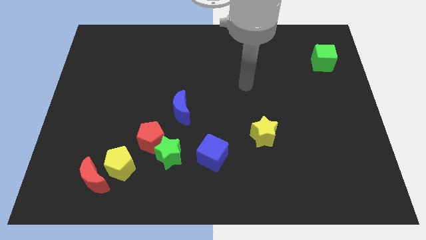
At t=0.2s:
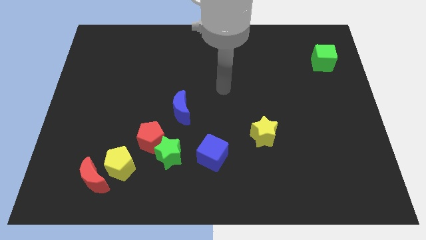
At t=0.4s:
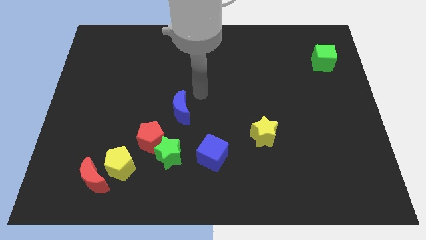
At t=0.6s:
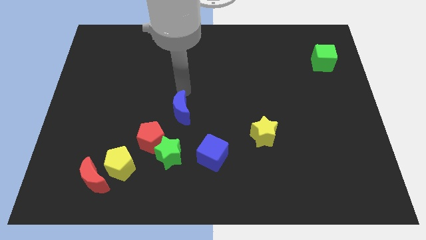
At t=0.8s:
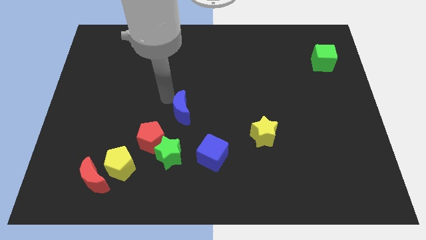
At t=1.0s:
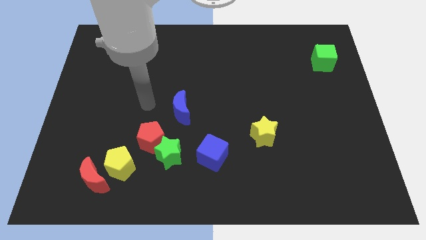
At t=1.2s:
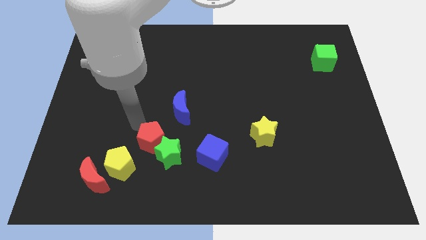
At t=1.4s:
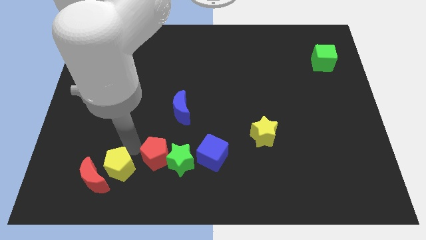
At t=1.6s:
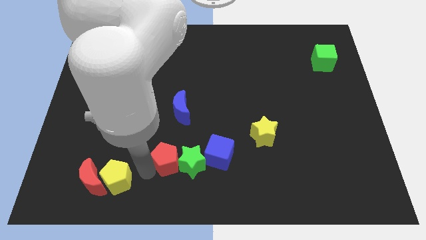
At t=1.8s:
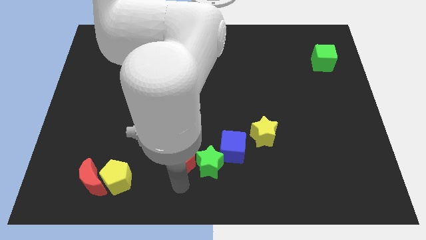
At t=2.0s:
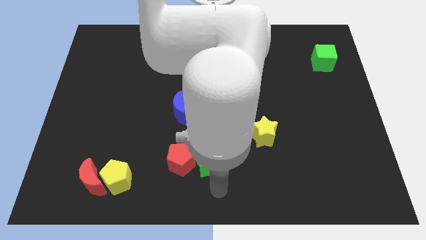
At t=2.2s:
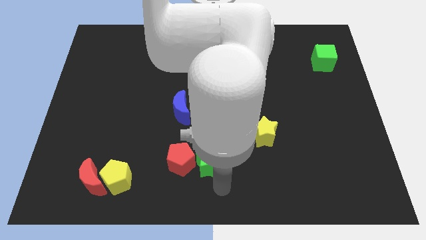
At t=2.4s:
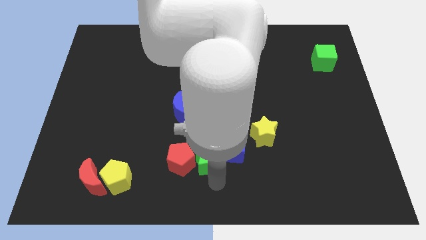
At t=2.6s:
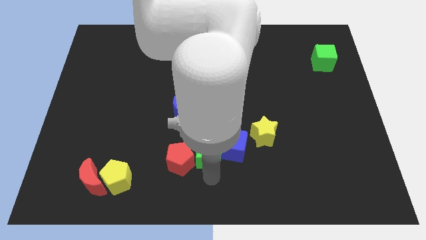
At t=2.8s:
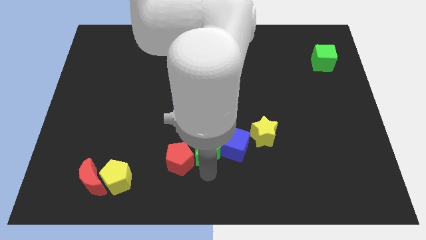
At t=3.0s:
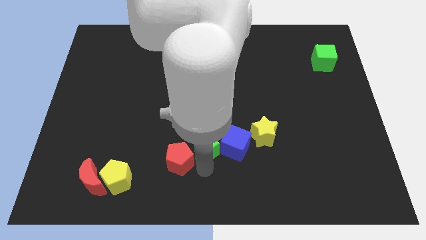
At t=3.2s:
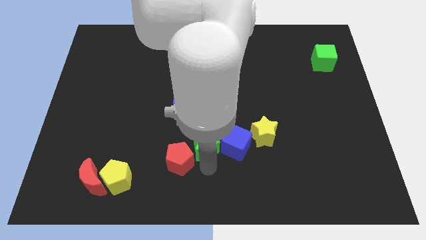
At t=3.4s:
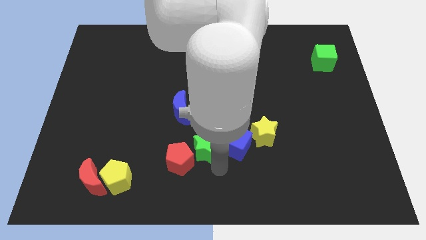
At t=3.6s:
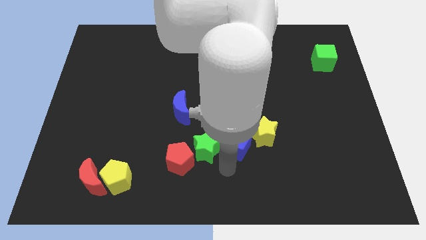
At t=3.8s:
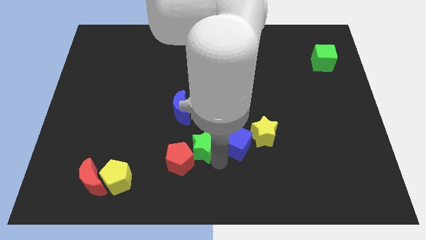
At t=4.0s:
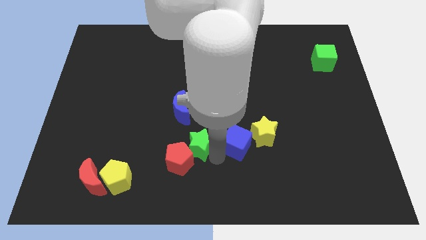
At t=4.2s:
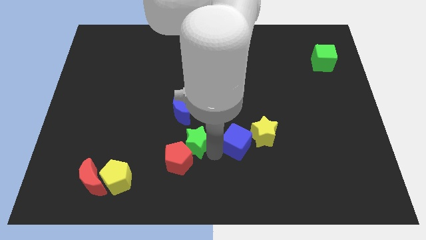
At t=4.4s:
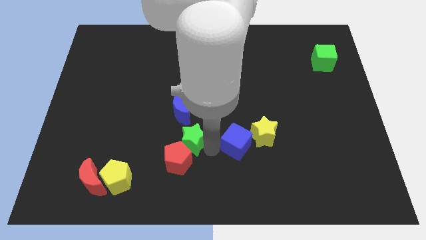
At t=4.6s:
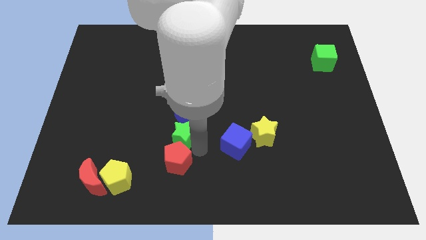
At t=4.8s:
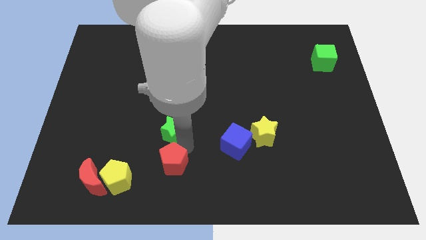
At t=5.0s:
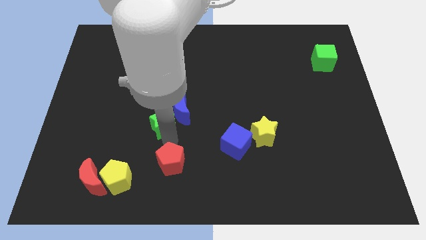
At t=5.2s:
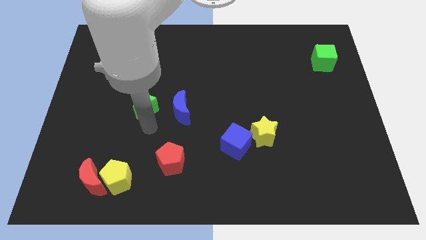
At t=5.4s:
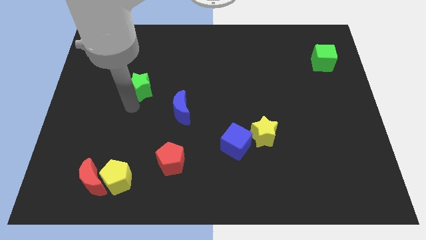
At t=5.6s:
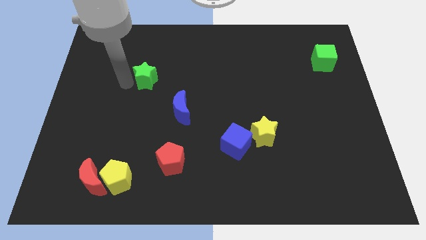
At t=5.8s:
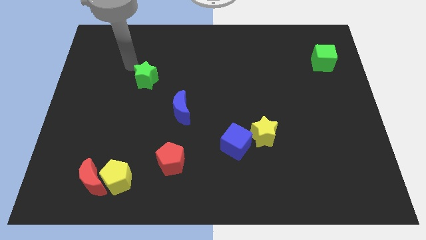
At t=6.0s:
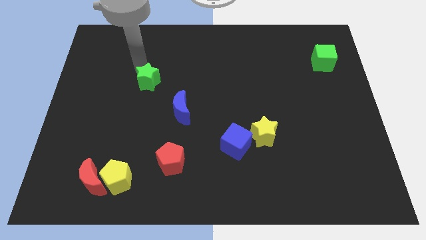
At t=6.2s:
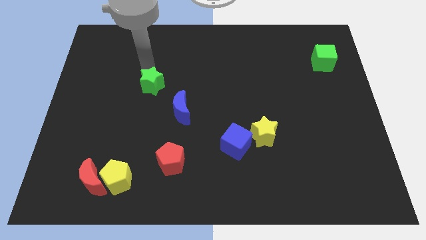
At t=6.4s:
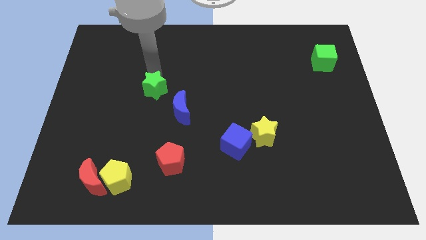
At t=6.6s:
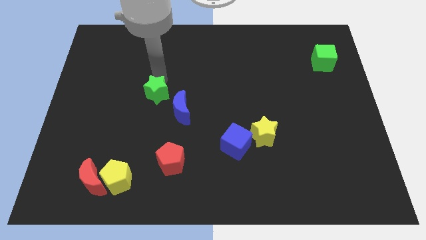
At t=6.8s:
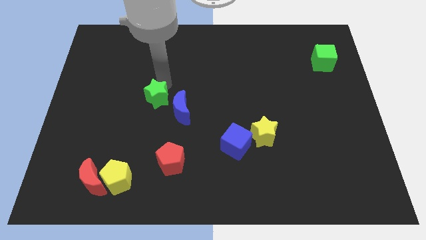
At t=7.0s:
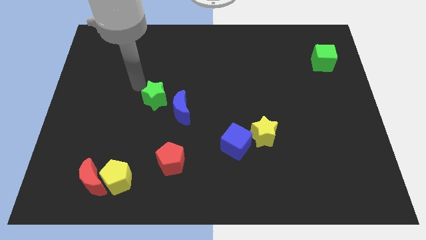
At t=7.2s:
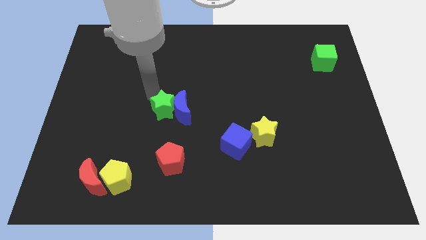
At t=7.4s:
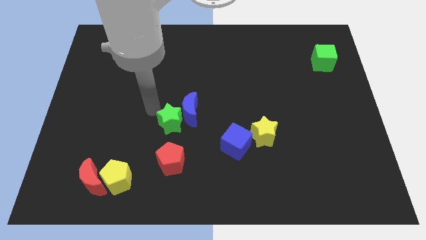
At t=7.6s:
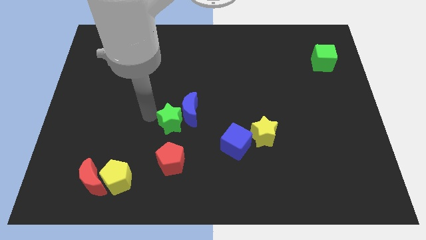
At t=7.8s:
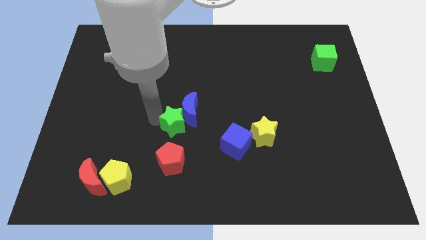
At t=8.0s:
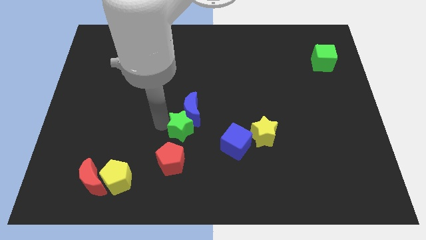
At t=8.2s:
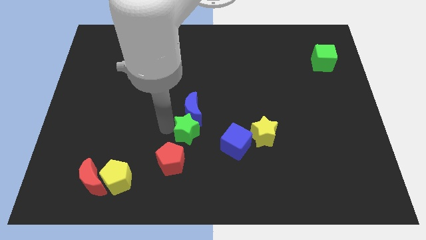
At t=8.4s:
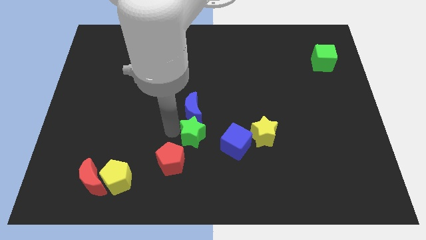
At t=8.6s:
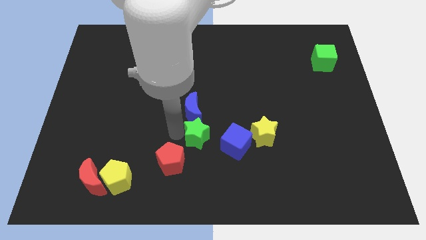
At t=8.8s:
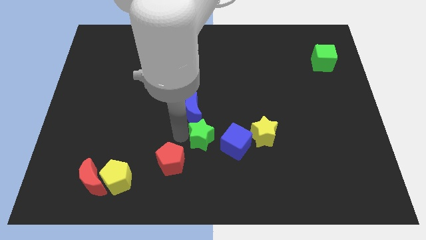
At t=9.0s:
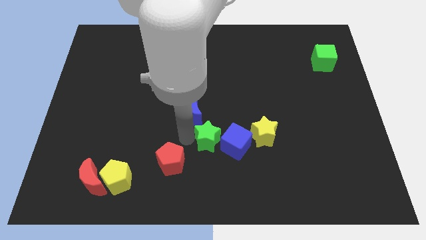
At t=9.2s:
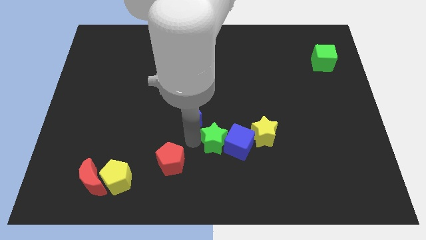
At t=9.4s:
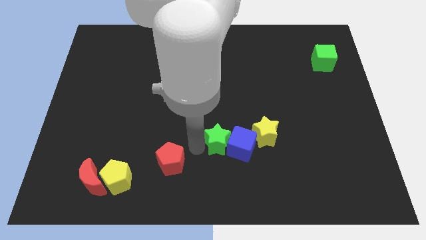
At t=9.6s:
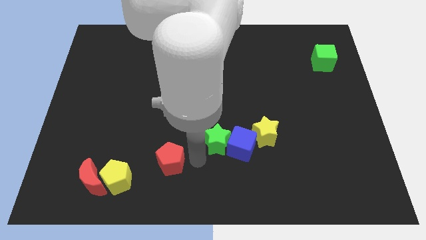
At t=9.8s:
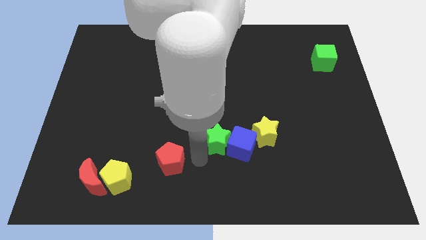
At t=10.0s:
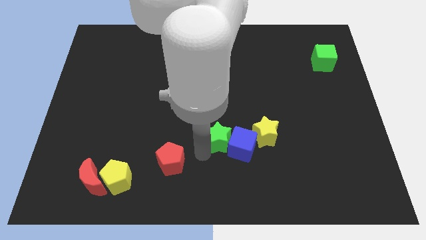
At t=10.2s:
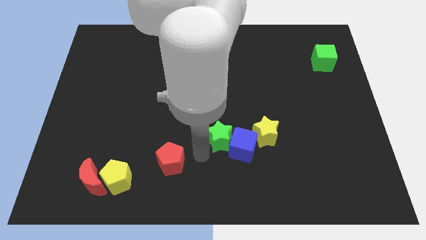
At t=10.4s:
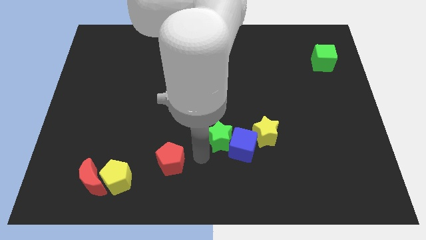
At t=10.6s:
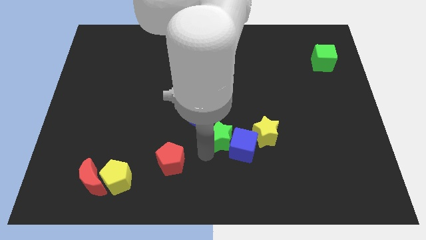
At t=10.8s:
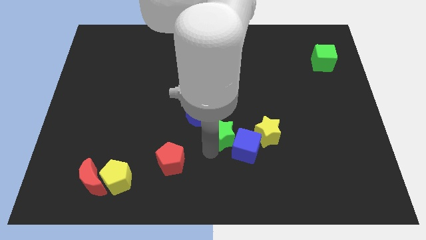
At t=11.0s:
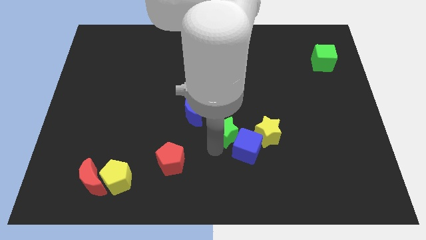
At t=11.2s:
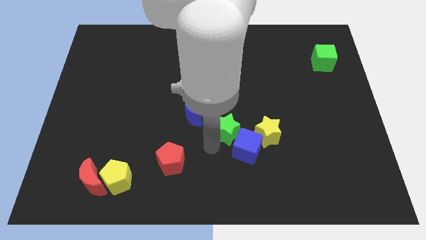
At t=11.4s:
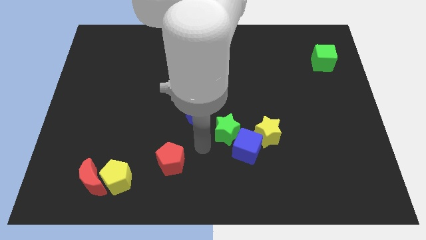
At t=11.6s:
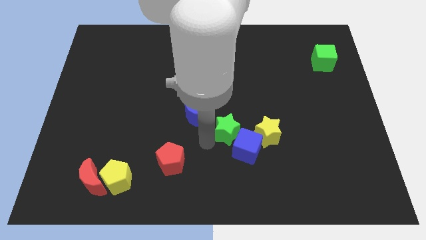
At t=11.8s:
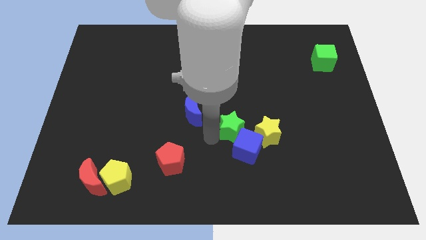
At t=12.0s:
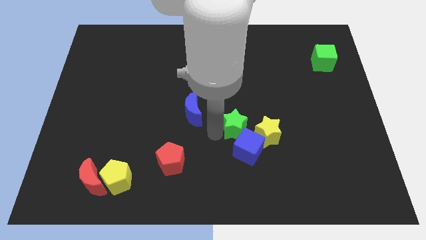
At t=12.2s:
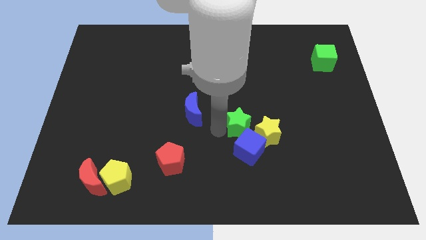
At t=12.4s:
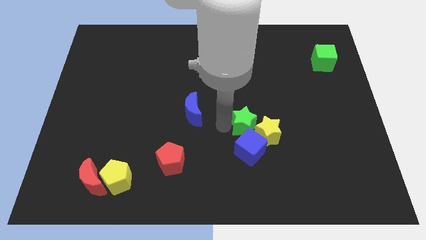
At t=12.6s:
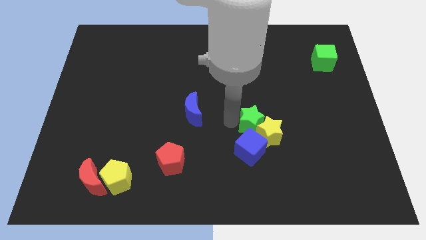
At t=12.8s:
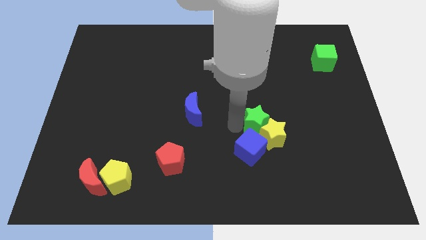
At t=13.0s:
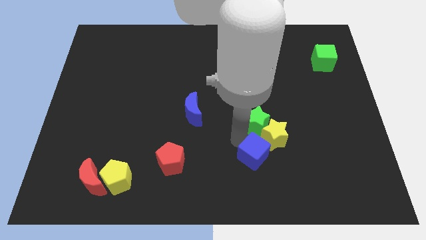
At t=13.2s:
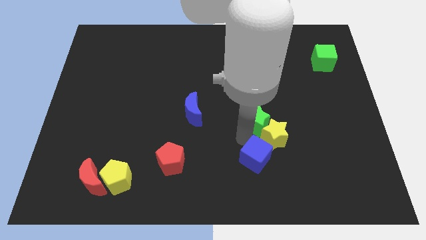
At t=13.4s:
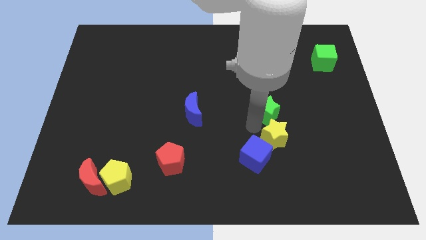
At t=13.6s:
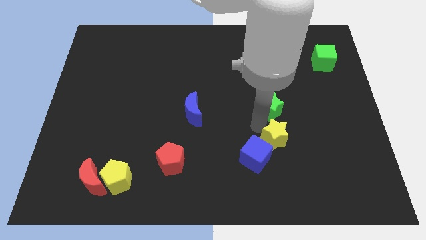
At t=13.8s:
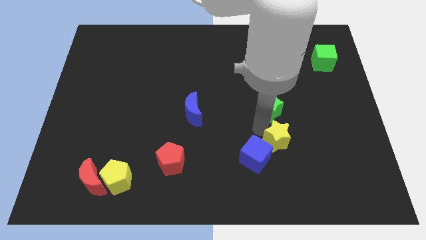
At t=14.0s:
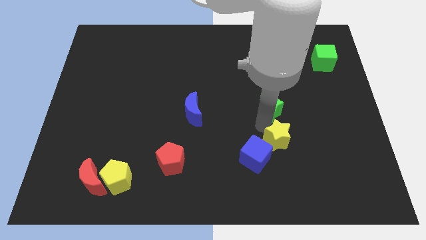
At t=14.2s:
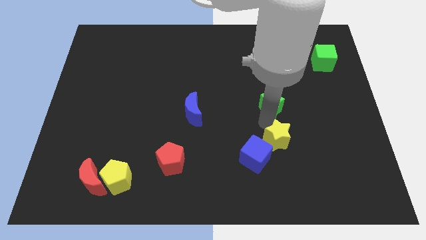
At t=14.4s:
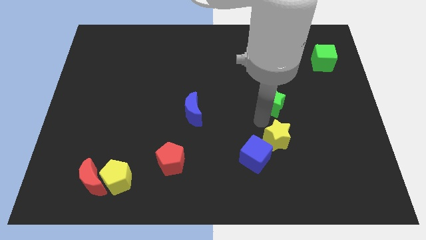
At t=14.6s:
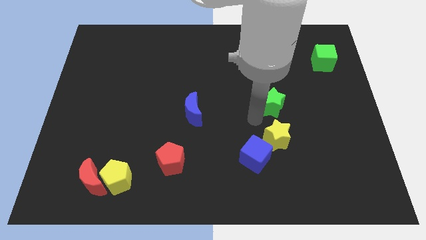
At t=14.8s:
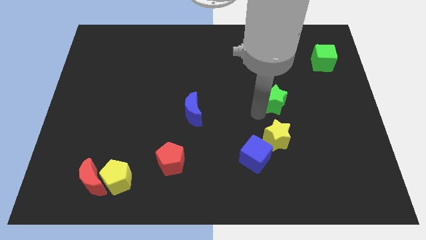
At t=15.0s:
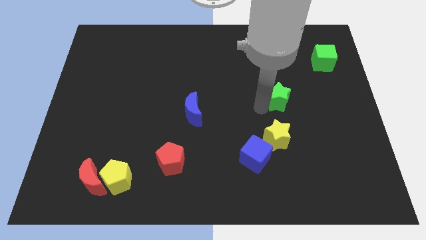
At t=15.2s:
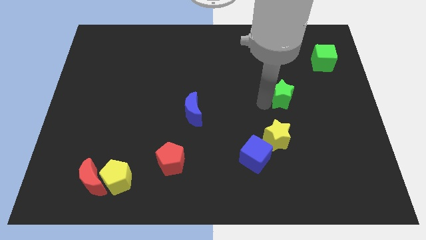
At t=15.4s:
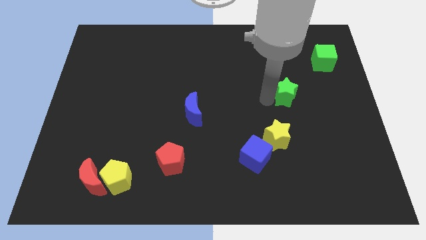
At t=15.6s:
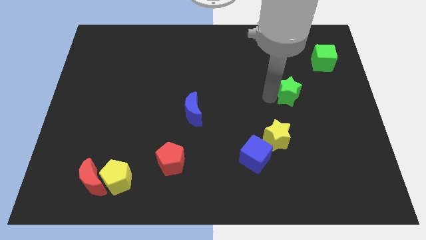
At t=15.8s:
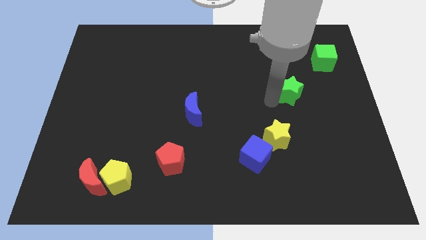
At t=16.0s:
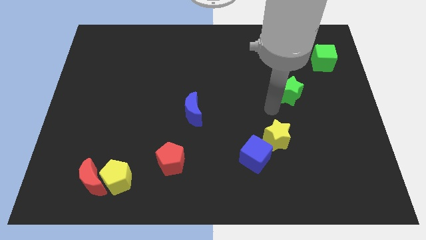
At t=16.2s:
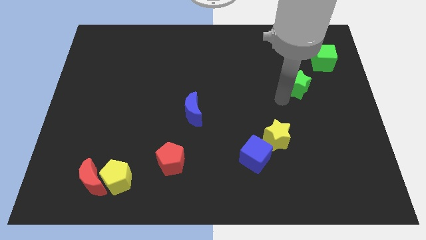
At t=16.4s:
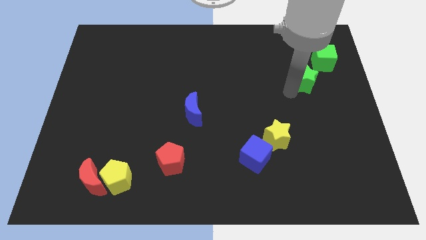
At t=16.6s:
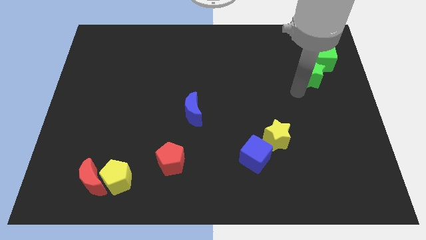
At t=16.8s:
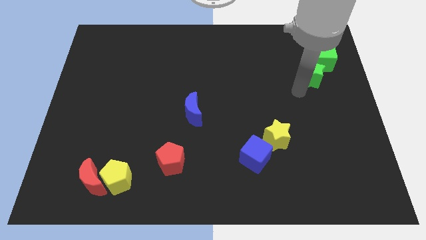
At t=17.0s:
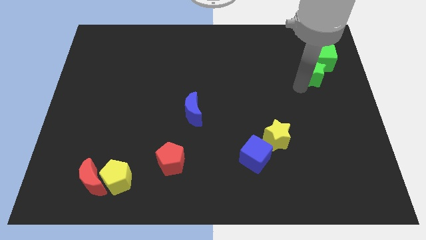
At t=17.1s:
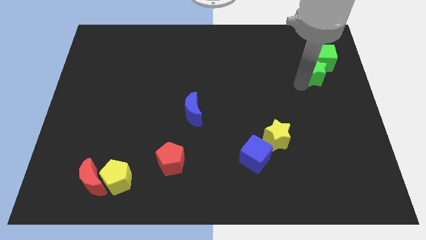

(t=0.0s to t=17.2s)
push the green star close to the green cube
